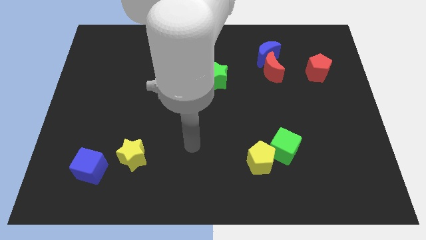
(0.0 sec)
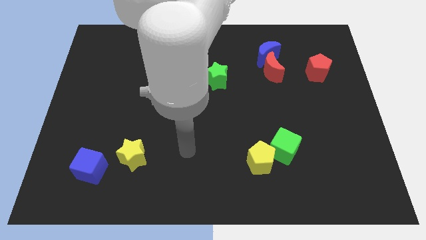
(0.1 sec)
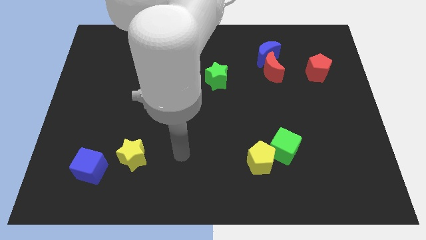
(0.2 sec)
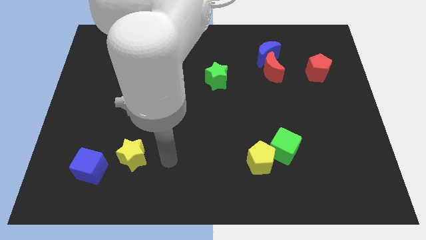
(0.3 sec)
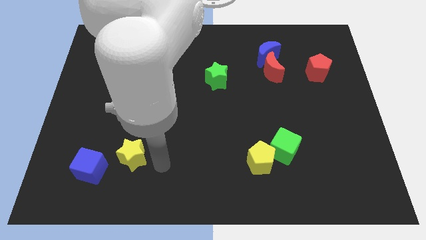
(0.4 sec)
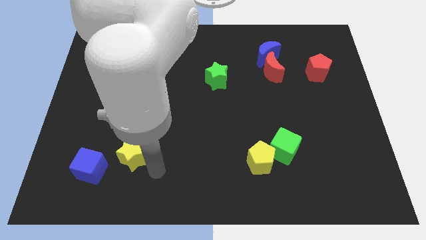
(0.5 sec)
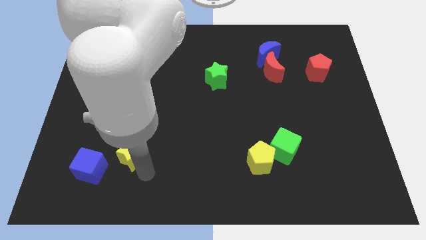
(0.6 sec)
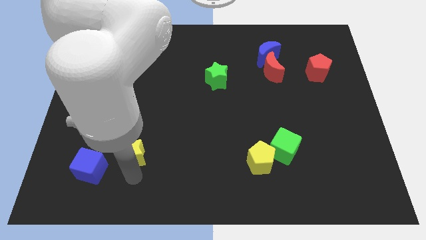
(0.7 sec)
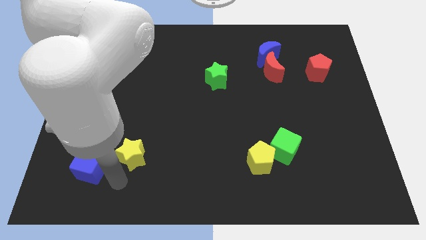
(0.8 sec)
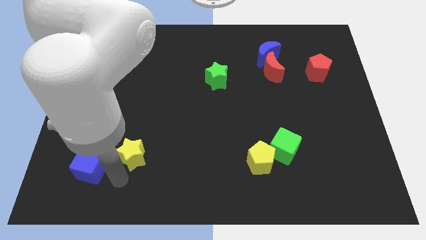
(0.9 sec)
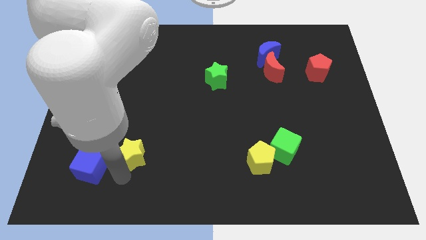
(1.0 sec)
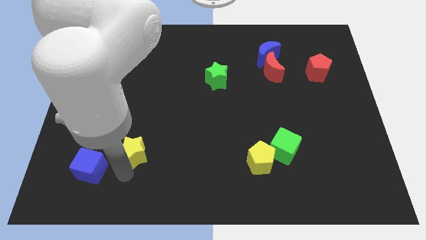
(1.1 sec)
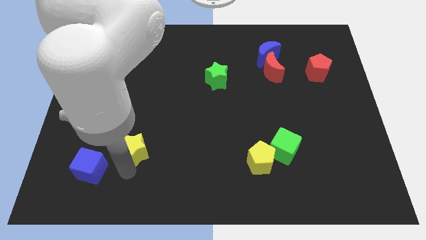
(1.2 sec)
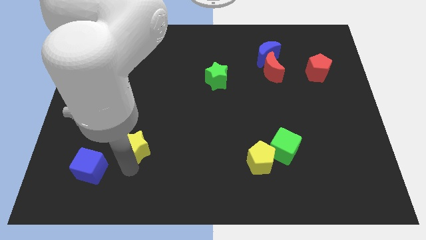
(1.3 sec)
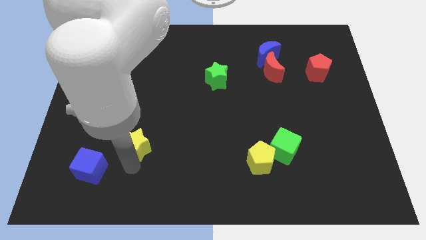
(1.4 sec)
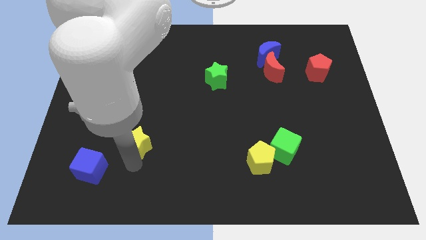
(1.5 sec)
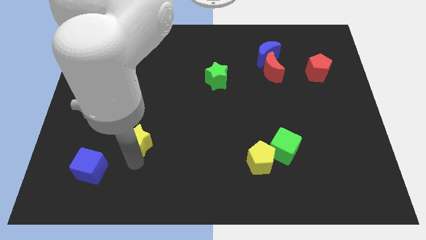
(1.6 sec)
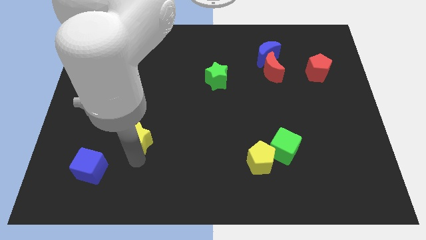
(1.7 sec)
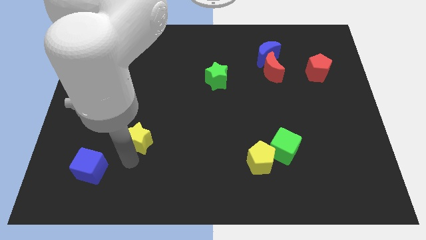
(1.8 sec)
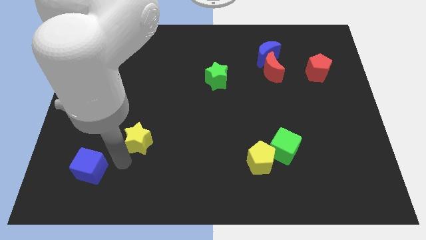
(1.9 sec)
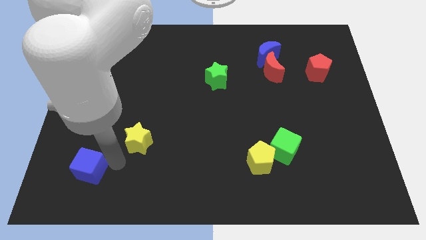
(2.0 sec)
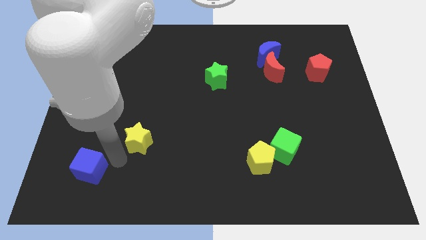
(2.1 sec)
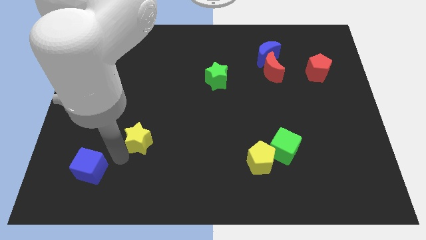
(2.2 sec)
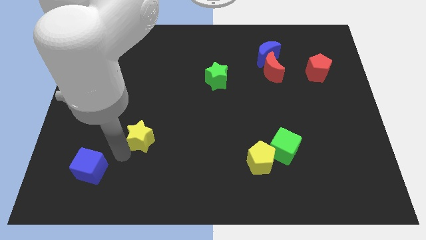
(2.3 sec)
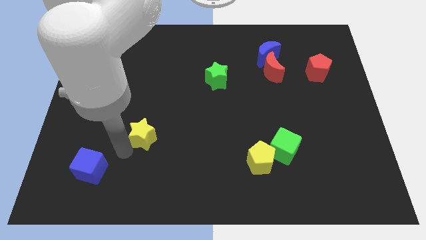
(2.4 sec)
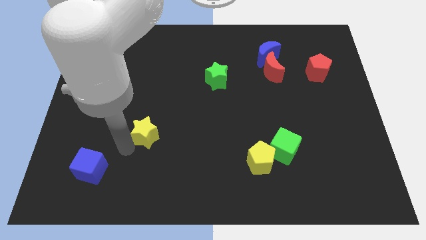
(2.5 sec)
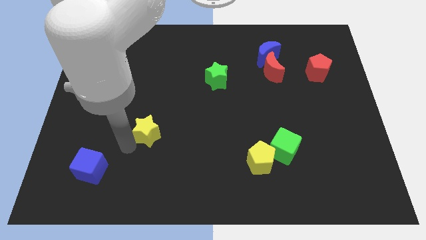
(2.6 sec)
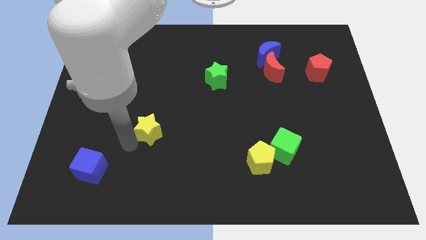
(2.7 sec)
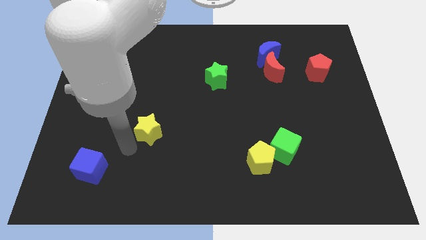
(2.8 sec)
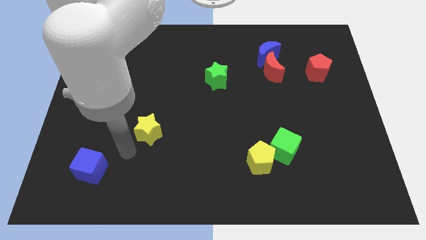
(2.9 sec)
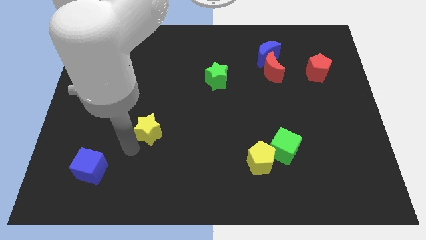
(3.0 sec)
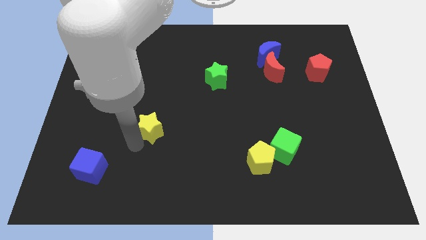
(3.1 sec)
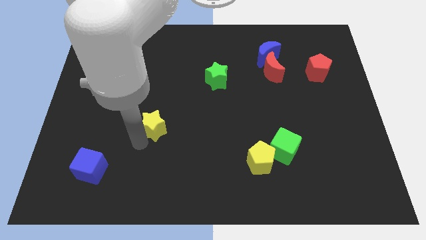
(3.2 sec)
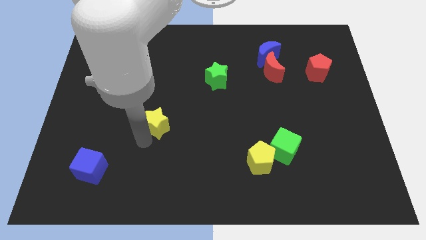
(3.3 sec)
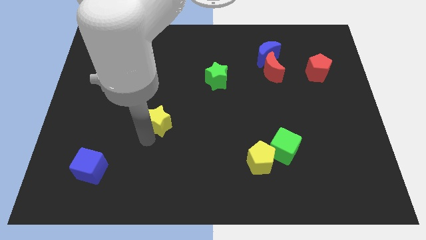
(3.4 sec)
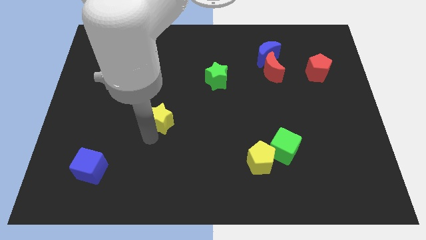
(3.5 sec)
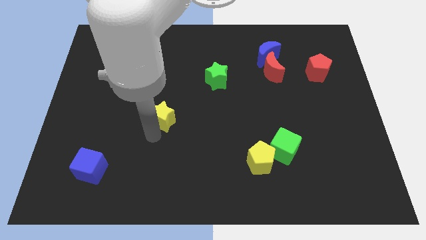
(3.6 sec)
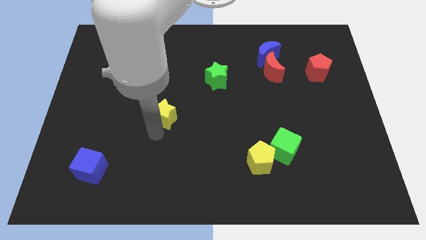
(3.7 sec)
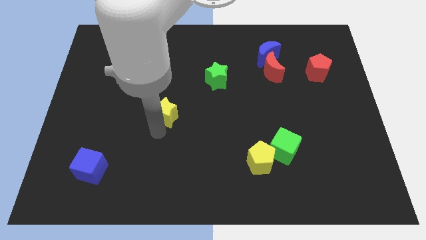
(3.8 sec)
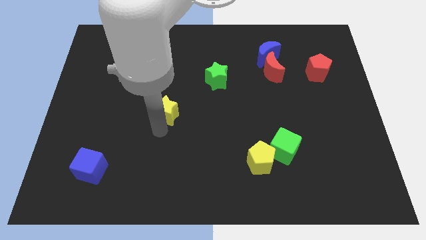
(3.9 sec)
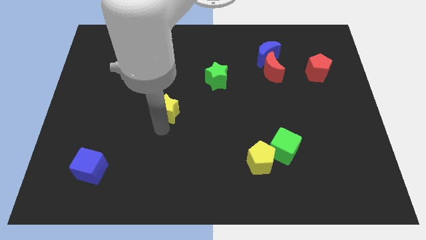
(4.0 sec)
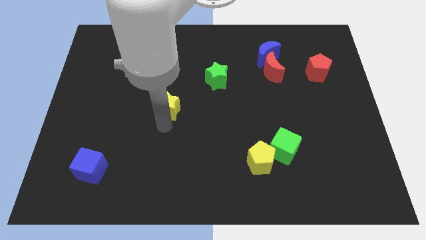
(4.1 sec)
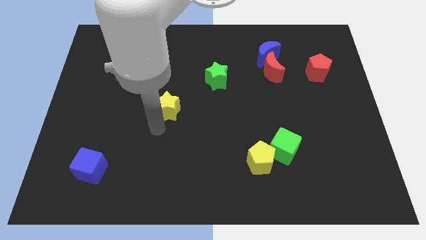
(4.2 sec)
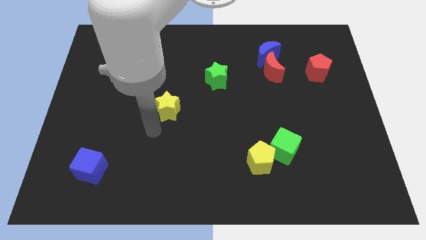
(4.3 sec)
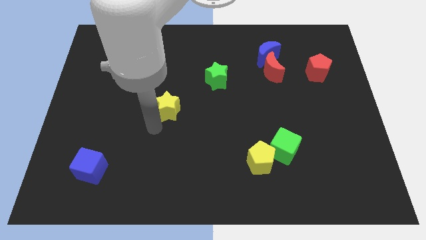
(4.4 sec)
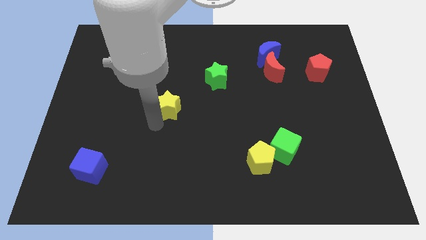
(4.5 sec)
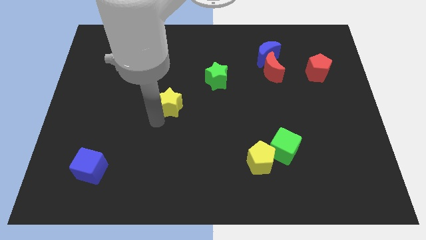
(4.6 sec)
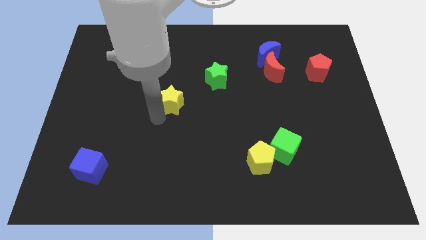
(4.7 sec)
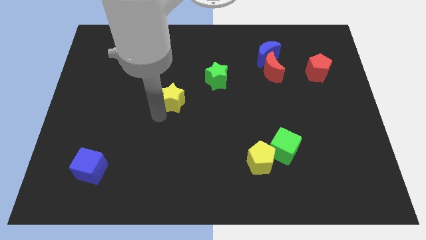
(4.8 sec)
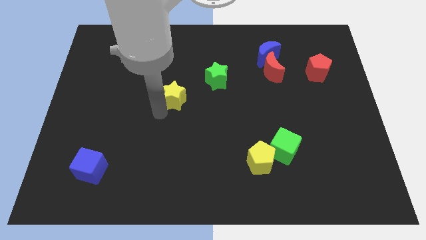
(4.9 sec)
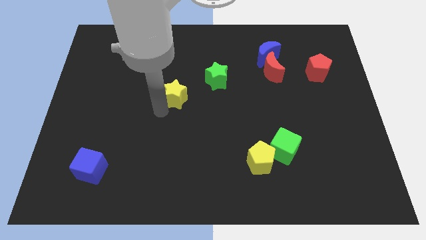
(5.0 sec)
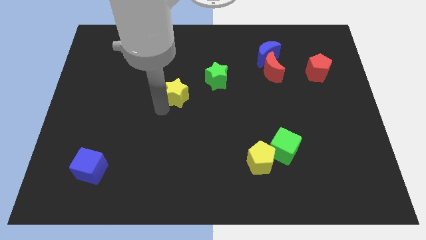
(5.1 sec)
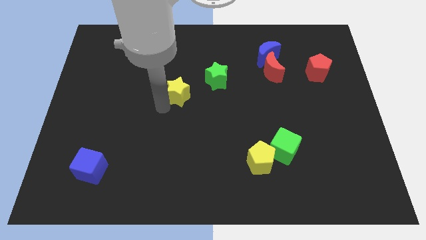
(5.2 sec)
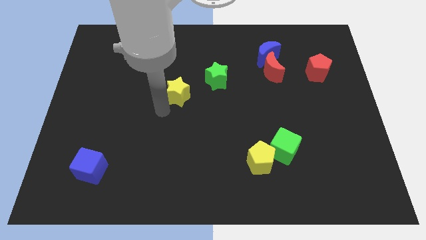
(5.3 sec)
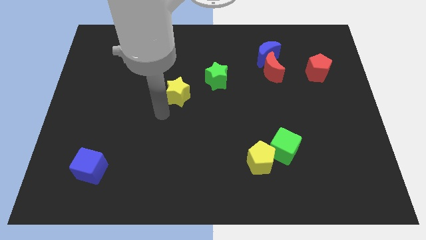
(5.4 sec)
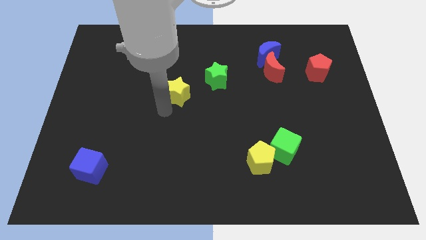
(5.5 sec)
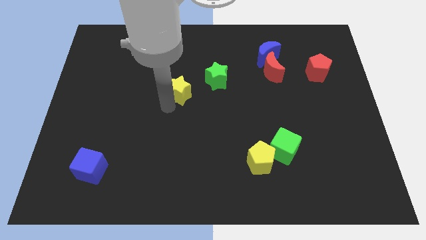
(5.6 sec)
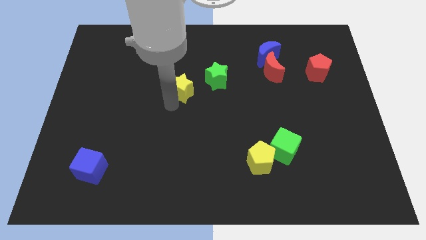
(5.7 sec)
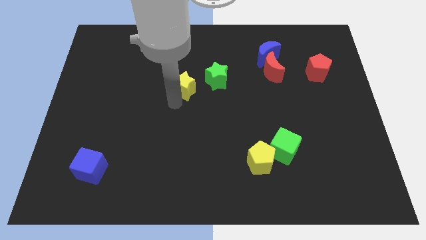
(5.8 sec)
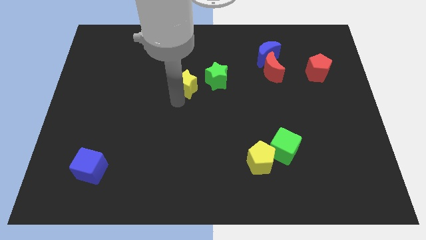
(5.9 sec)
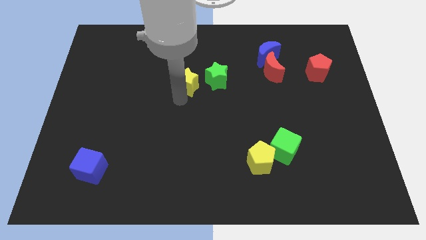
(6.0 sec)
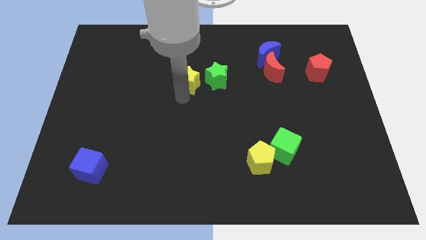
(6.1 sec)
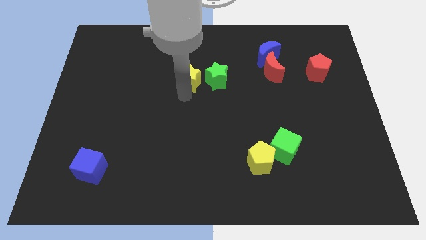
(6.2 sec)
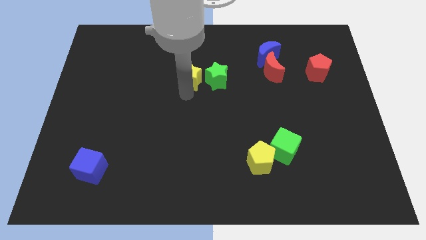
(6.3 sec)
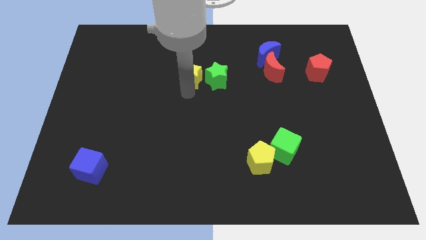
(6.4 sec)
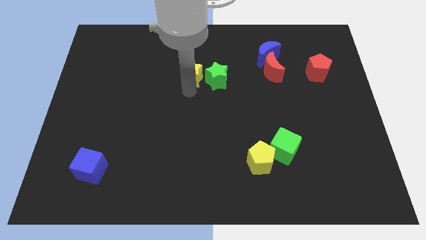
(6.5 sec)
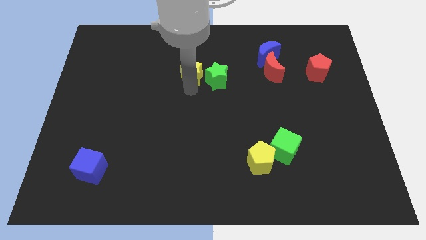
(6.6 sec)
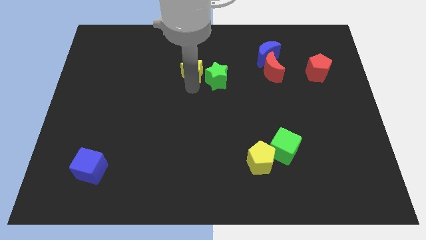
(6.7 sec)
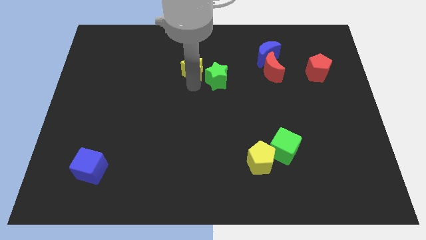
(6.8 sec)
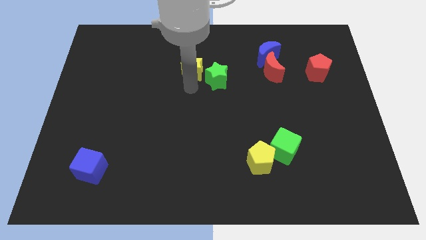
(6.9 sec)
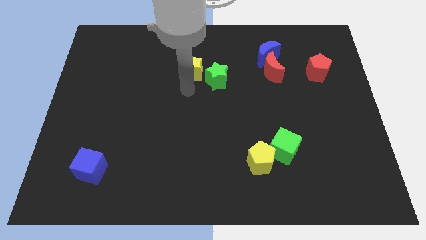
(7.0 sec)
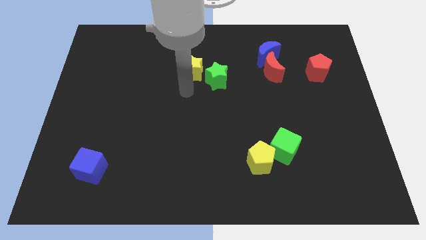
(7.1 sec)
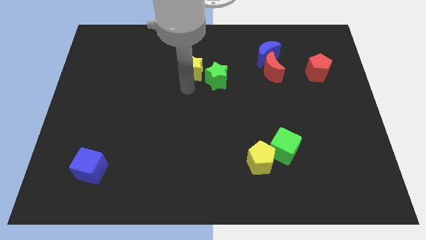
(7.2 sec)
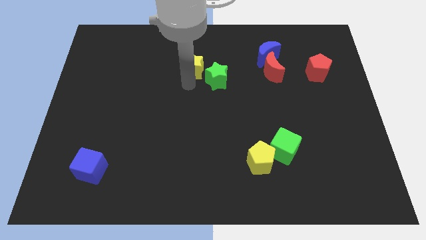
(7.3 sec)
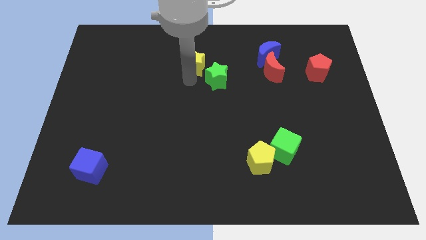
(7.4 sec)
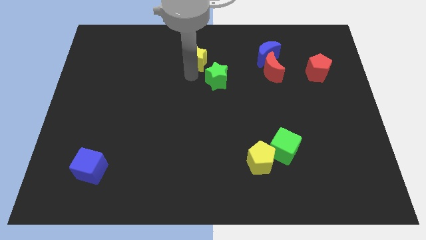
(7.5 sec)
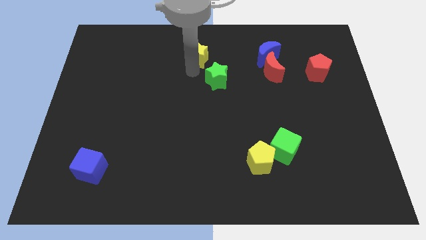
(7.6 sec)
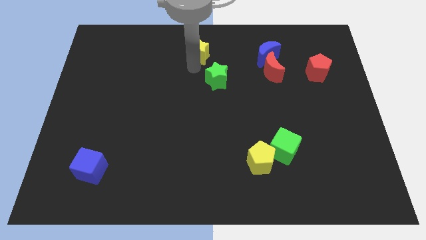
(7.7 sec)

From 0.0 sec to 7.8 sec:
move the yellow star to the top side
